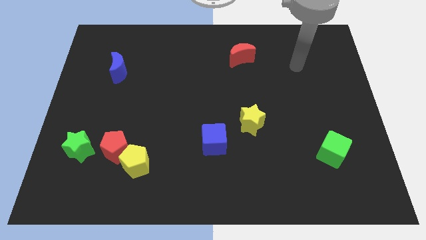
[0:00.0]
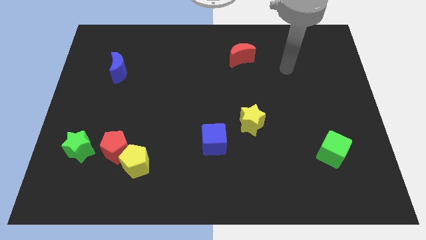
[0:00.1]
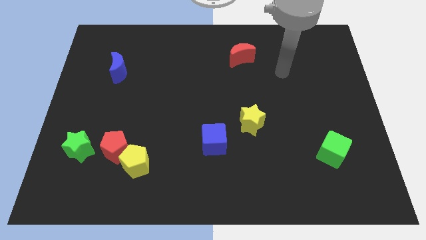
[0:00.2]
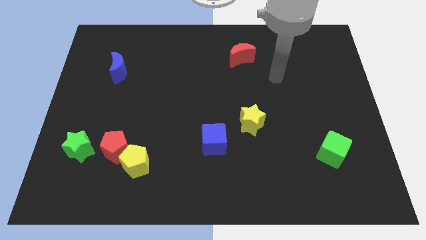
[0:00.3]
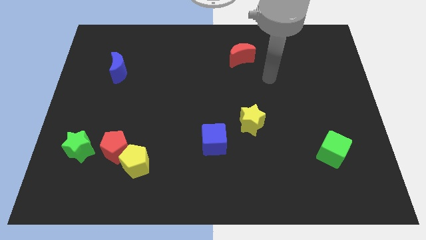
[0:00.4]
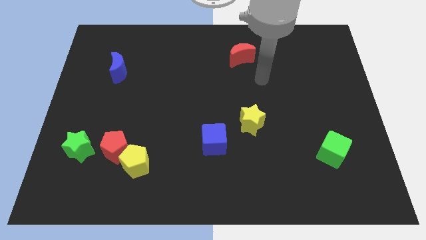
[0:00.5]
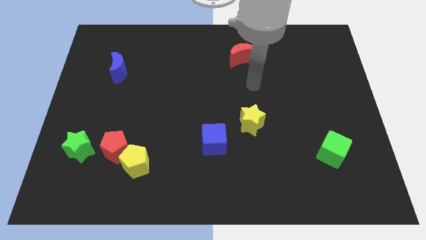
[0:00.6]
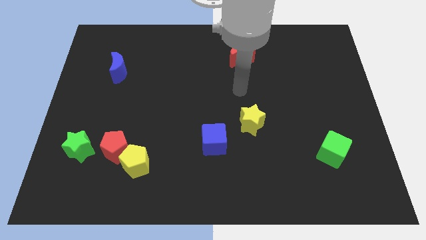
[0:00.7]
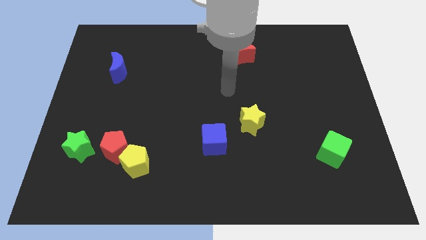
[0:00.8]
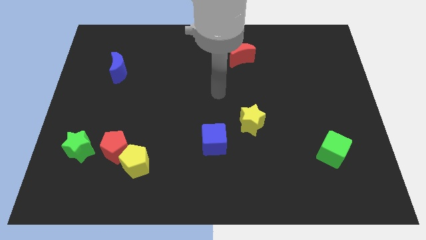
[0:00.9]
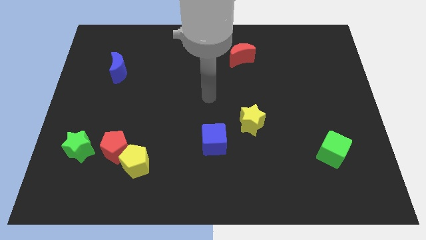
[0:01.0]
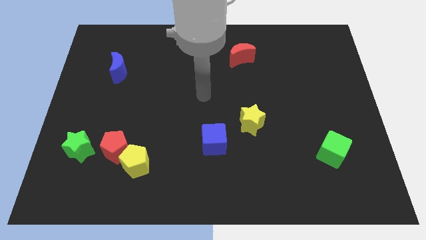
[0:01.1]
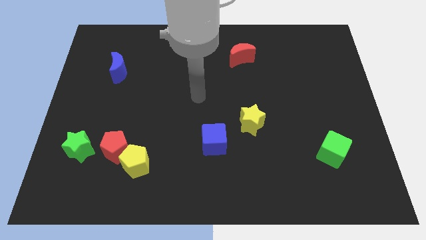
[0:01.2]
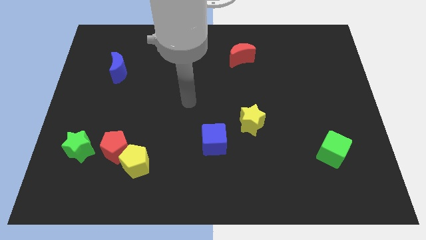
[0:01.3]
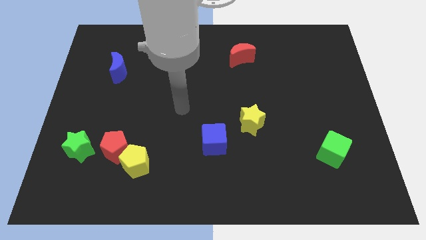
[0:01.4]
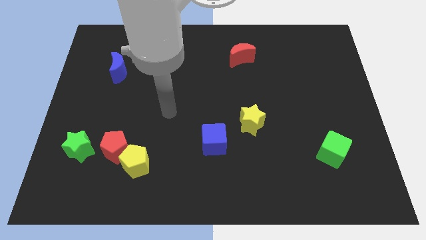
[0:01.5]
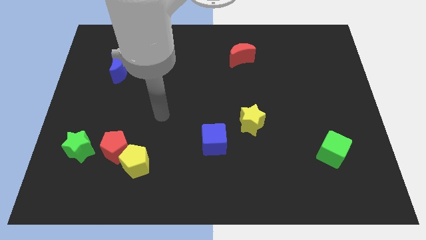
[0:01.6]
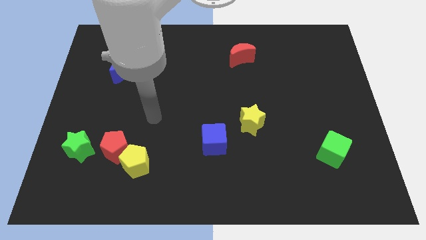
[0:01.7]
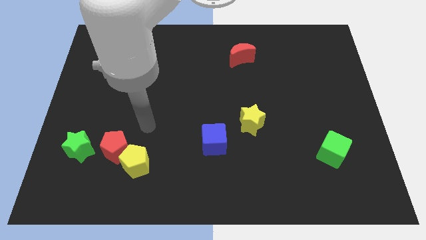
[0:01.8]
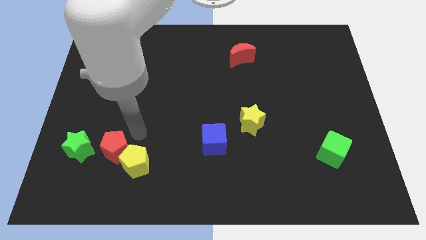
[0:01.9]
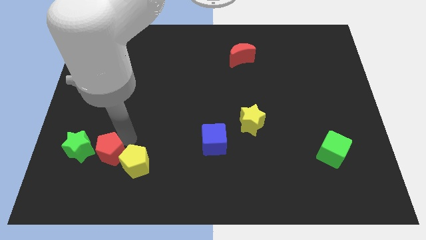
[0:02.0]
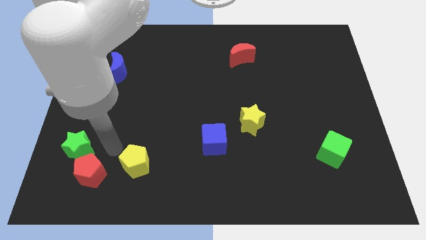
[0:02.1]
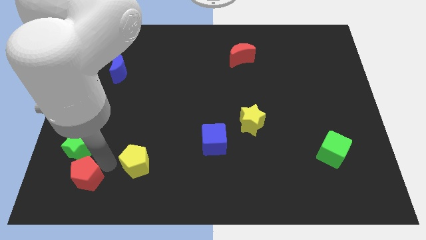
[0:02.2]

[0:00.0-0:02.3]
separate the yellow pentagon from the red pentagon

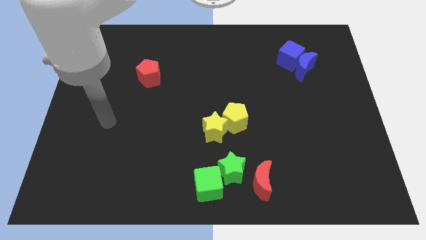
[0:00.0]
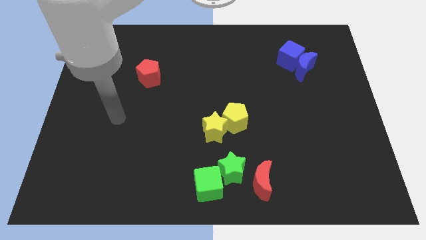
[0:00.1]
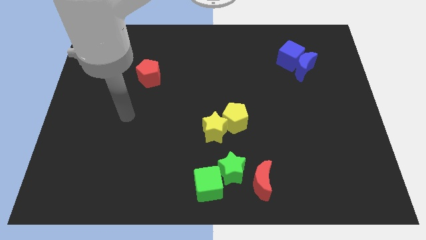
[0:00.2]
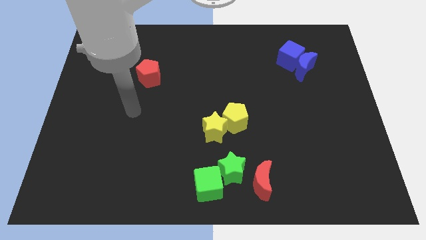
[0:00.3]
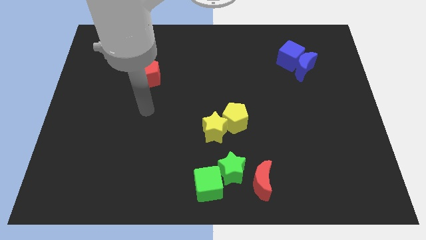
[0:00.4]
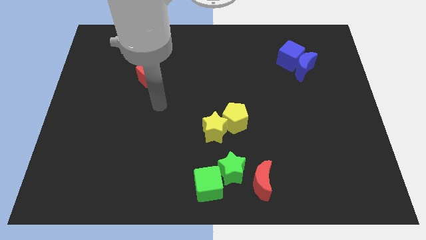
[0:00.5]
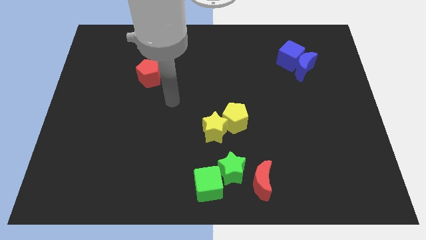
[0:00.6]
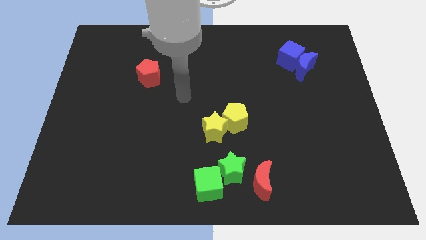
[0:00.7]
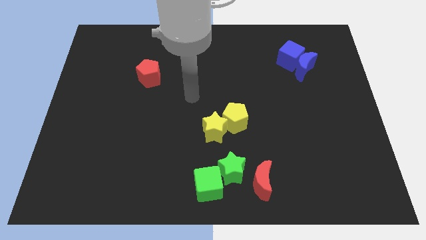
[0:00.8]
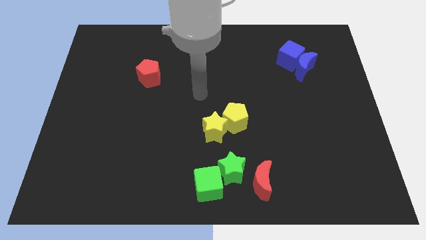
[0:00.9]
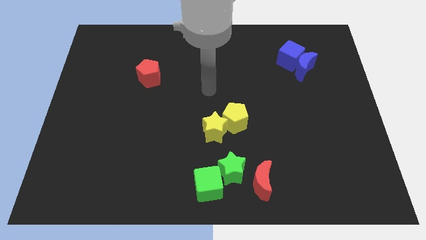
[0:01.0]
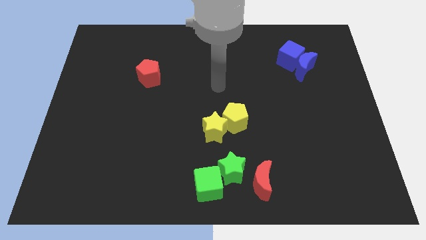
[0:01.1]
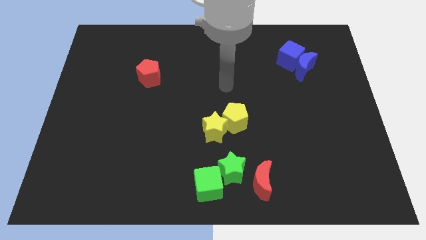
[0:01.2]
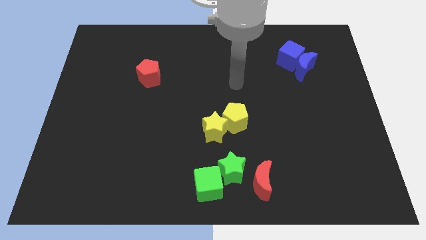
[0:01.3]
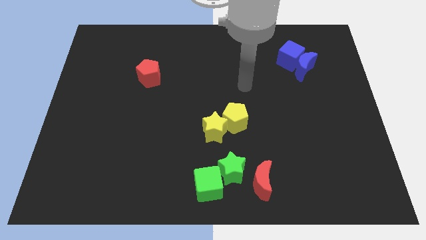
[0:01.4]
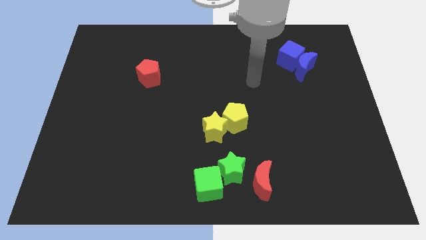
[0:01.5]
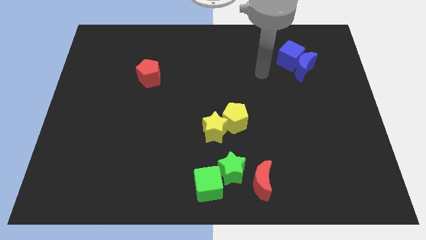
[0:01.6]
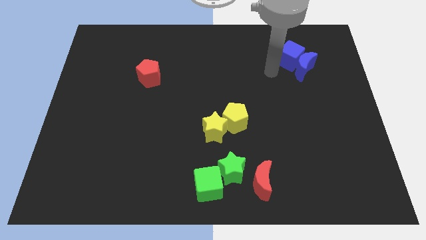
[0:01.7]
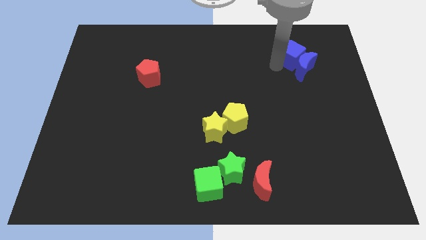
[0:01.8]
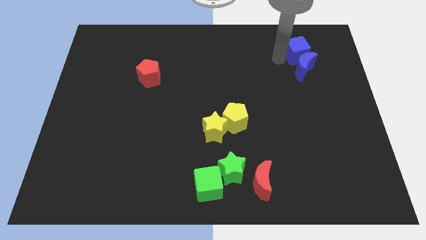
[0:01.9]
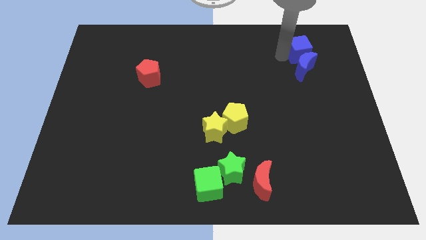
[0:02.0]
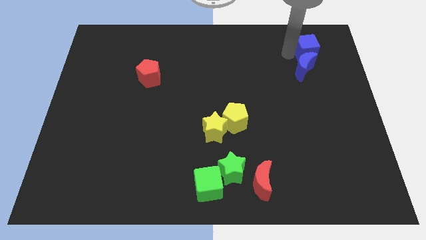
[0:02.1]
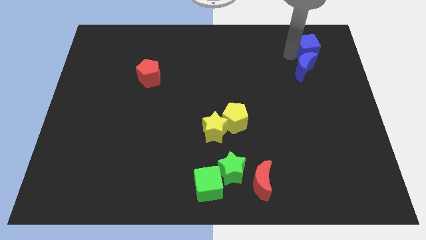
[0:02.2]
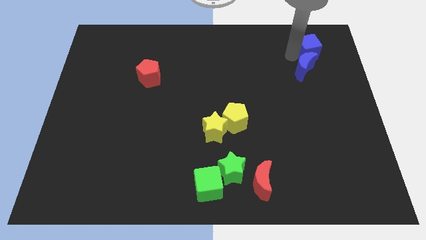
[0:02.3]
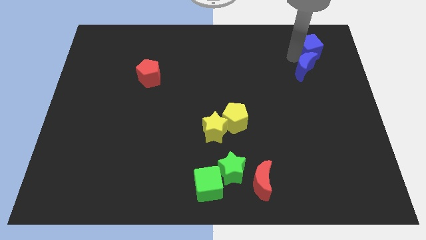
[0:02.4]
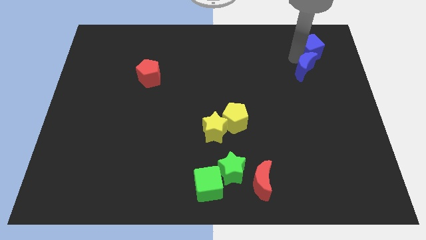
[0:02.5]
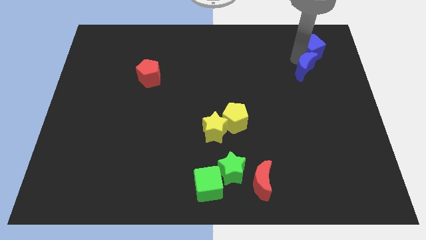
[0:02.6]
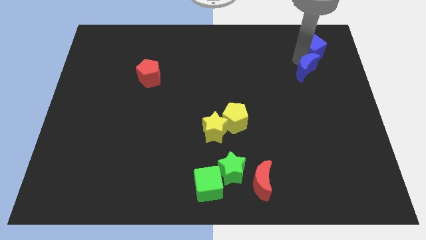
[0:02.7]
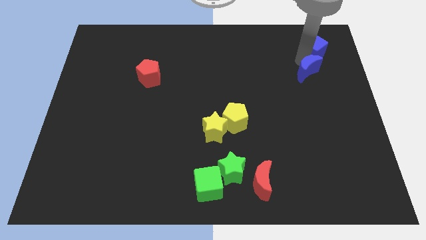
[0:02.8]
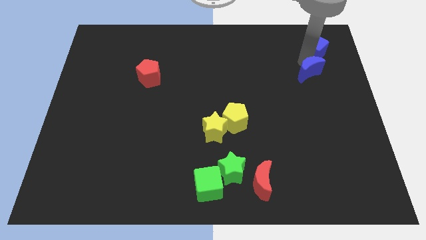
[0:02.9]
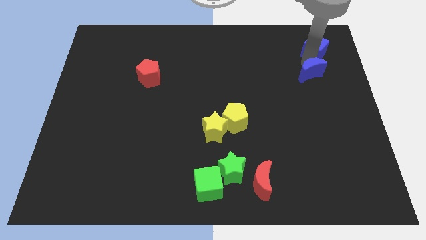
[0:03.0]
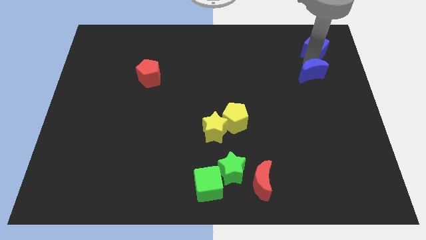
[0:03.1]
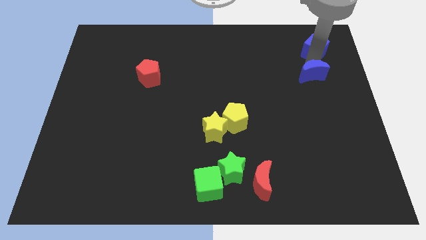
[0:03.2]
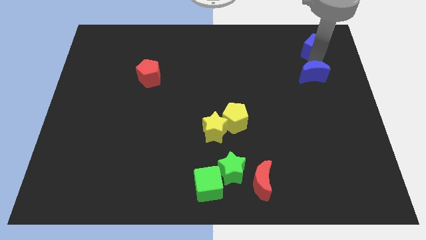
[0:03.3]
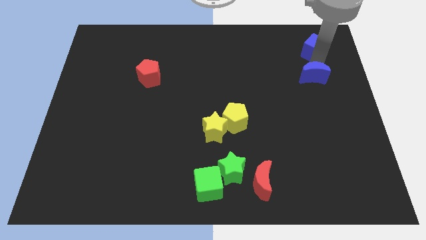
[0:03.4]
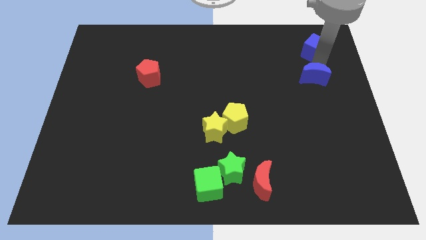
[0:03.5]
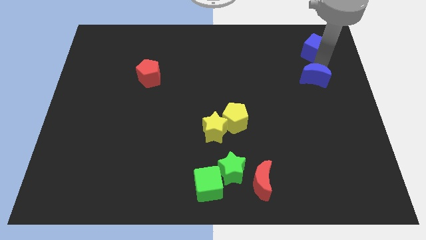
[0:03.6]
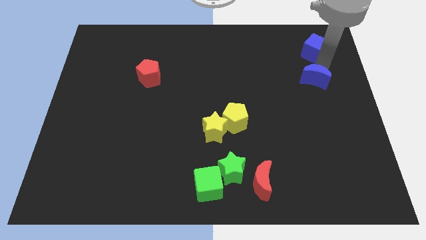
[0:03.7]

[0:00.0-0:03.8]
move the blue moon away from the blue cube

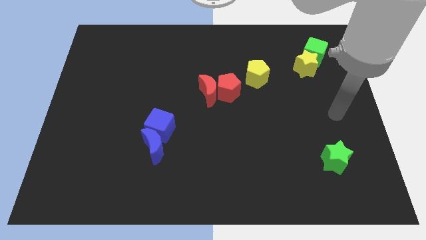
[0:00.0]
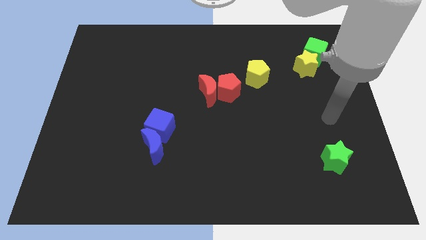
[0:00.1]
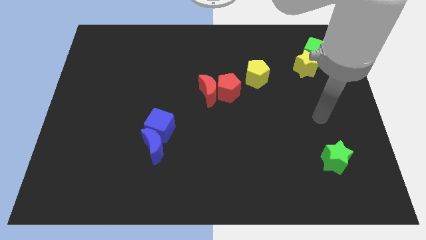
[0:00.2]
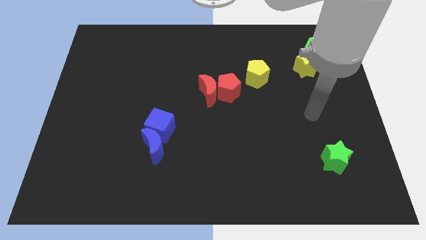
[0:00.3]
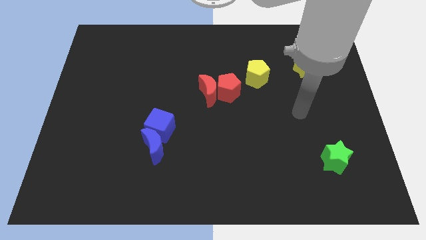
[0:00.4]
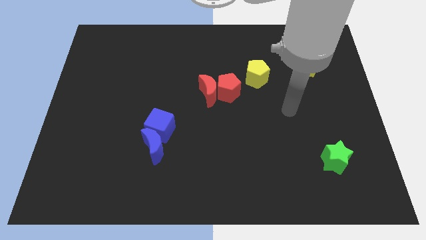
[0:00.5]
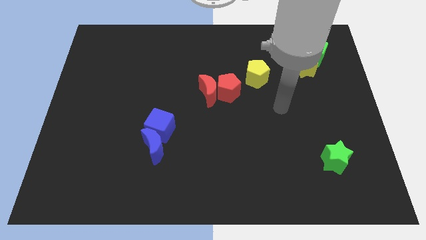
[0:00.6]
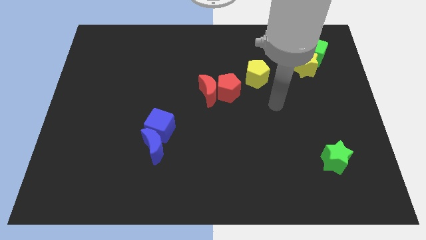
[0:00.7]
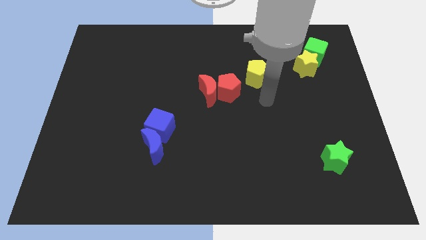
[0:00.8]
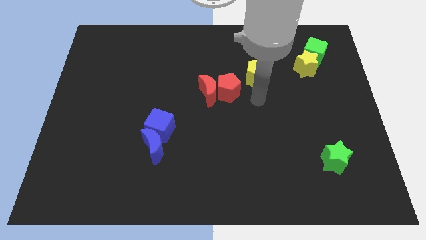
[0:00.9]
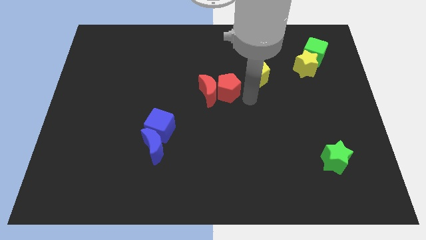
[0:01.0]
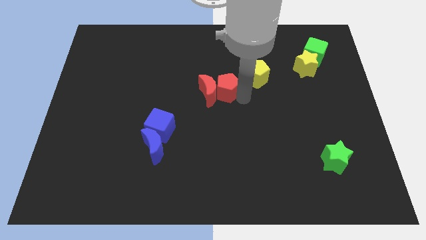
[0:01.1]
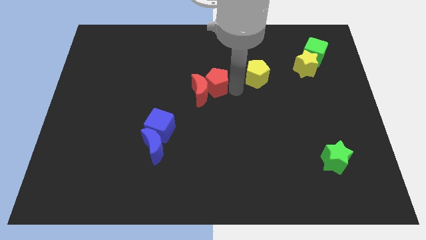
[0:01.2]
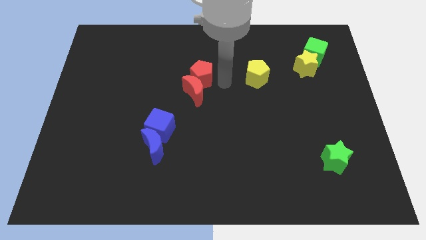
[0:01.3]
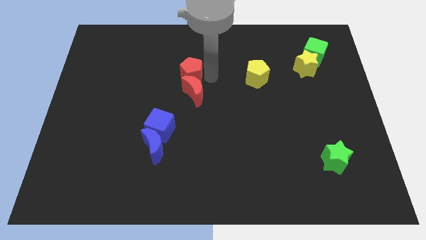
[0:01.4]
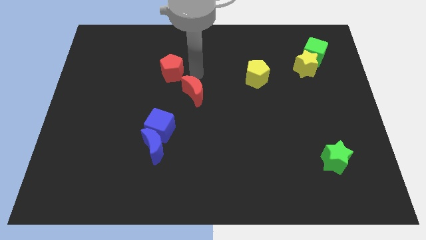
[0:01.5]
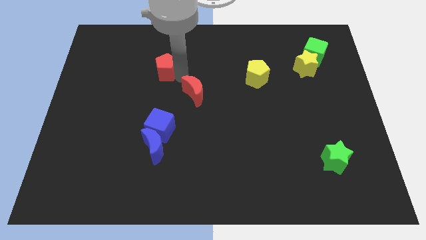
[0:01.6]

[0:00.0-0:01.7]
separate the red moon from the red pentagon

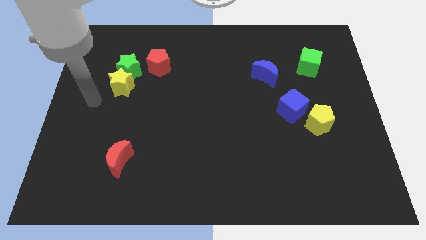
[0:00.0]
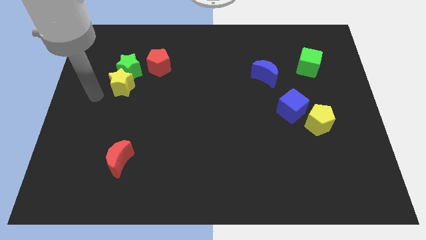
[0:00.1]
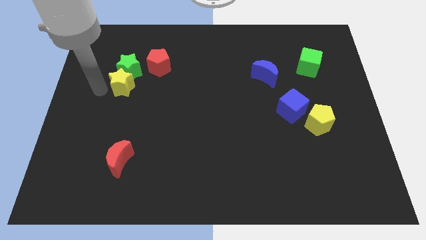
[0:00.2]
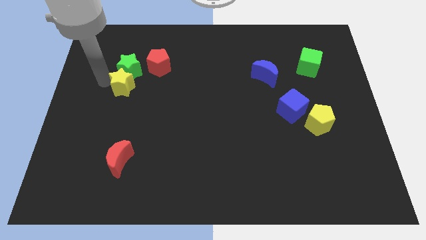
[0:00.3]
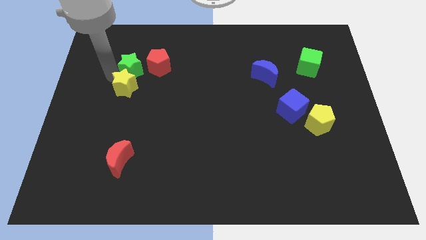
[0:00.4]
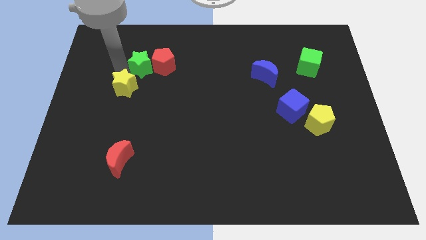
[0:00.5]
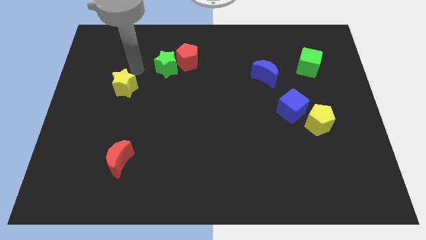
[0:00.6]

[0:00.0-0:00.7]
move the yellow star away from the green star

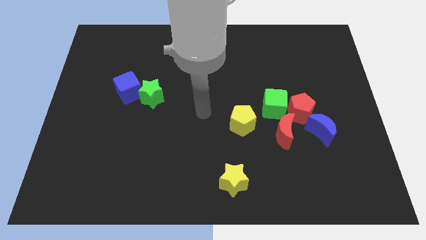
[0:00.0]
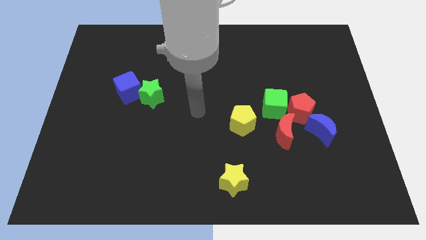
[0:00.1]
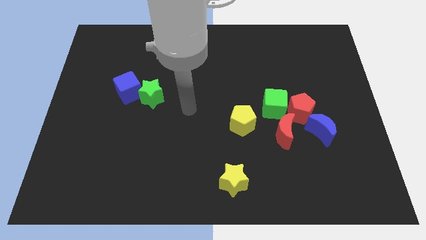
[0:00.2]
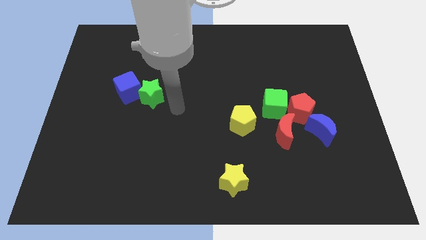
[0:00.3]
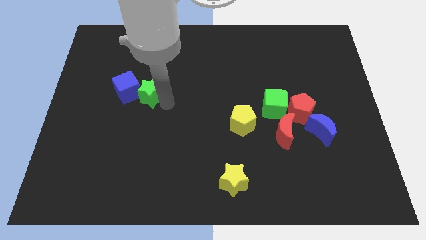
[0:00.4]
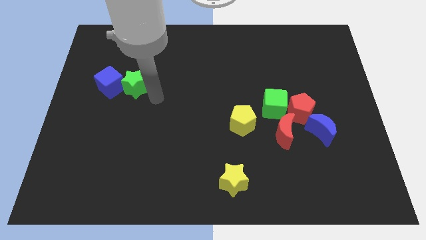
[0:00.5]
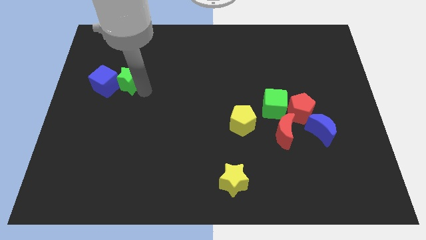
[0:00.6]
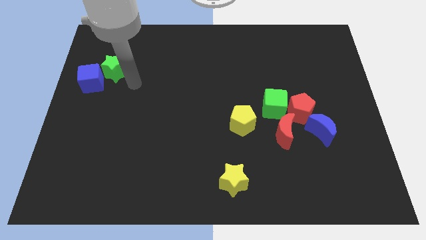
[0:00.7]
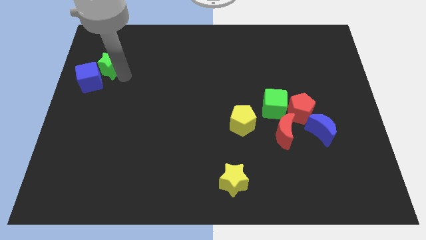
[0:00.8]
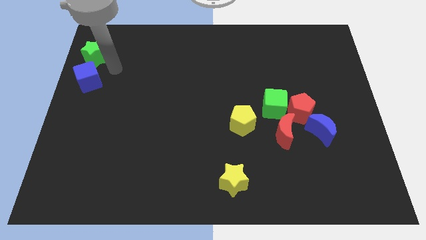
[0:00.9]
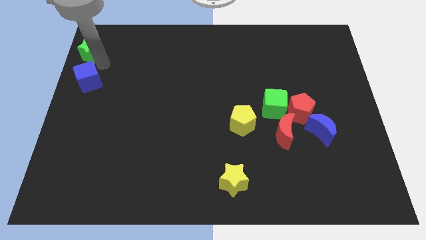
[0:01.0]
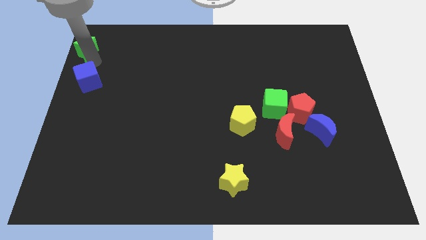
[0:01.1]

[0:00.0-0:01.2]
pull the blue cube apart from the green star
